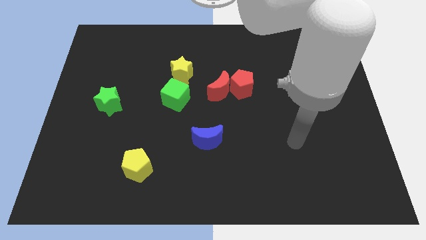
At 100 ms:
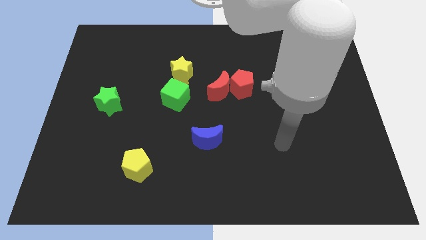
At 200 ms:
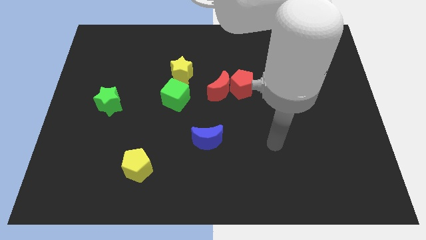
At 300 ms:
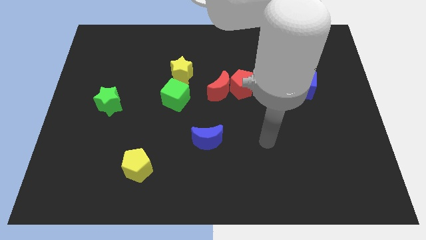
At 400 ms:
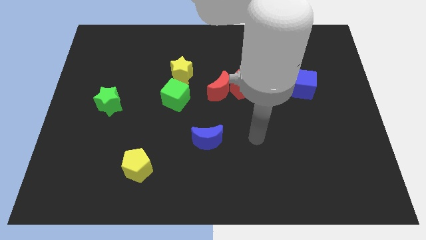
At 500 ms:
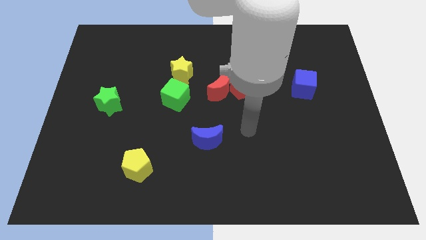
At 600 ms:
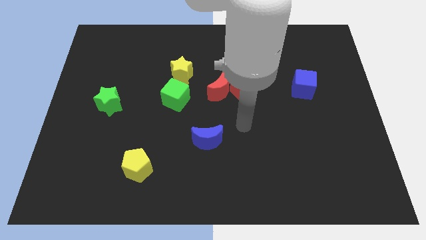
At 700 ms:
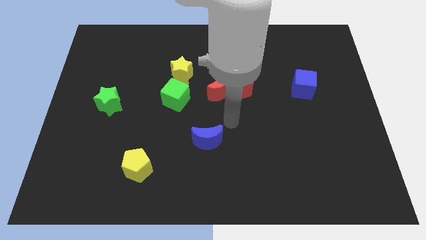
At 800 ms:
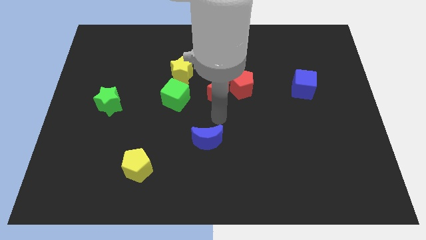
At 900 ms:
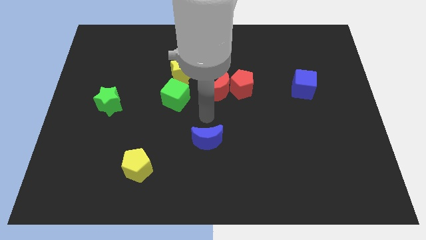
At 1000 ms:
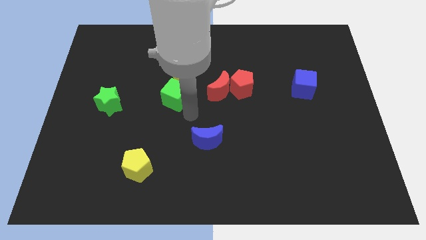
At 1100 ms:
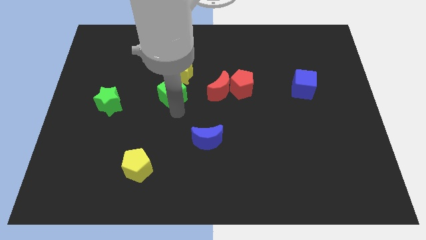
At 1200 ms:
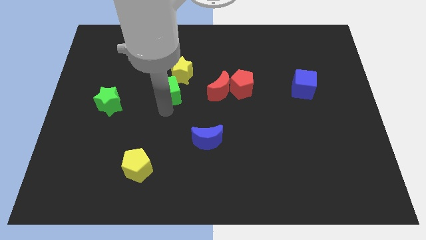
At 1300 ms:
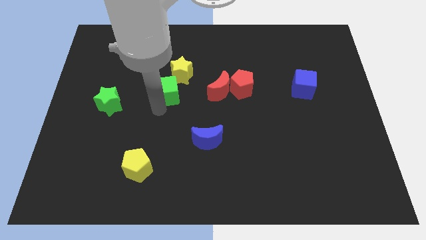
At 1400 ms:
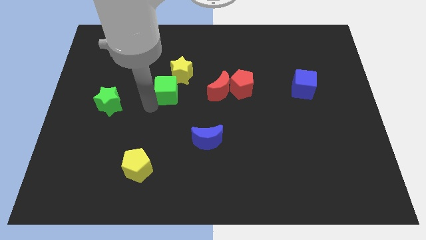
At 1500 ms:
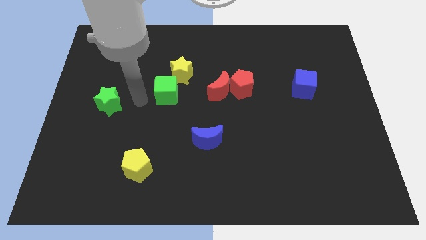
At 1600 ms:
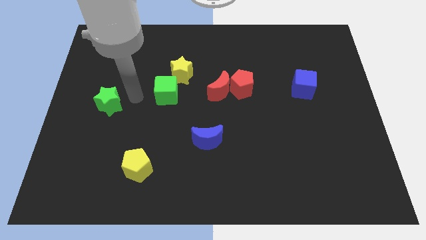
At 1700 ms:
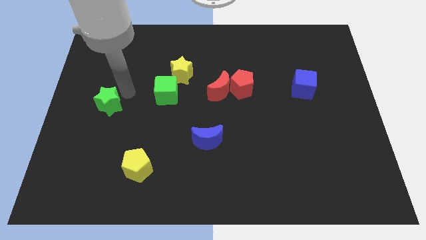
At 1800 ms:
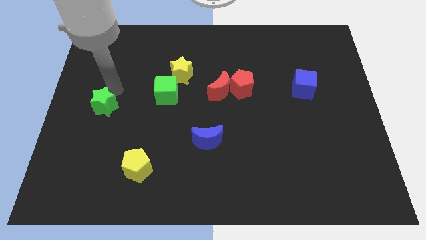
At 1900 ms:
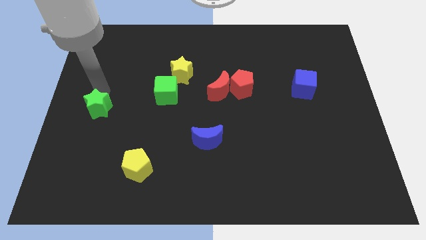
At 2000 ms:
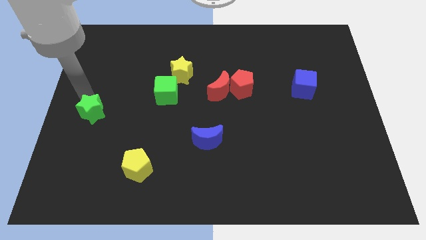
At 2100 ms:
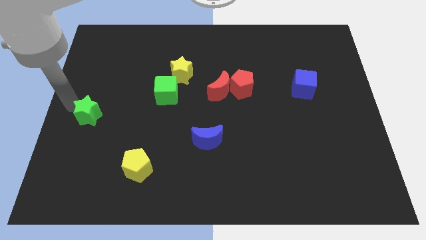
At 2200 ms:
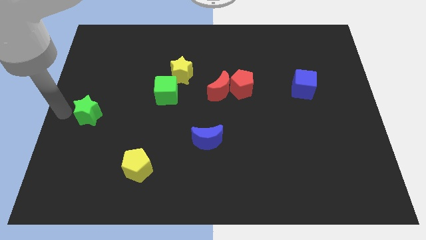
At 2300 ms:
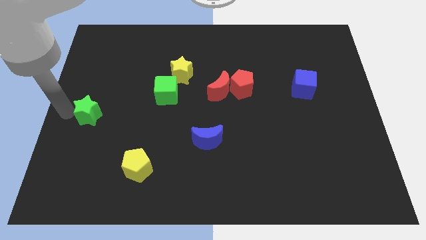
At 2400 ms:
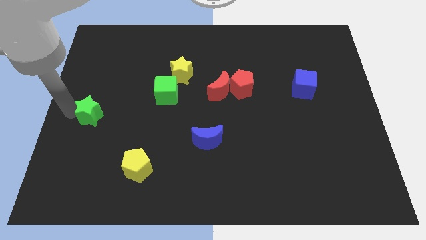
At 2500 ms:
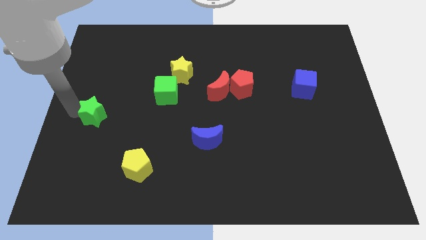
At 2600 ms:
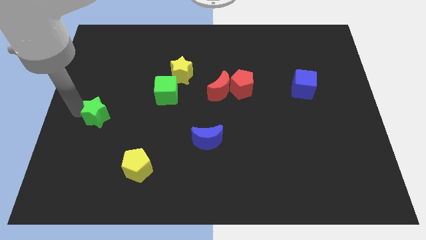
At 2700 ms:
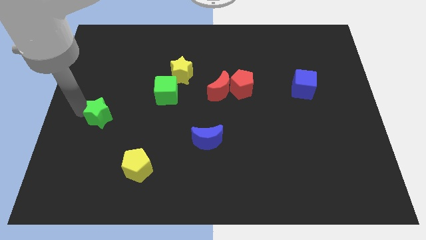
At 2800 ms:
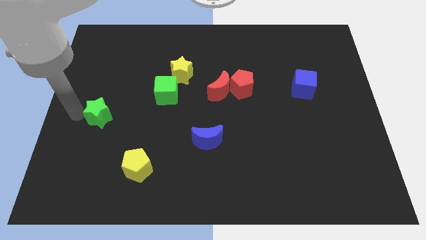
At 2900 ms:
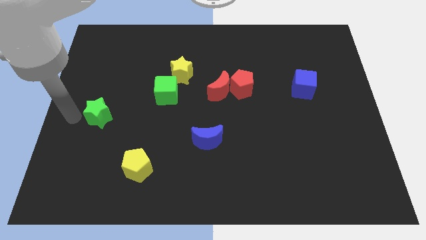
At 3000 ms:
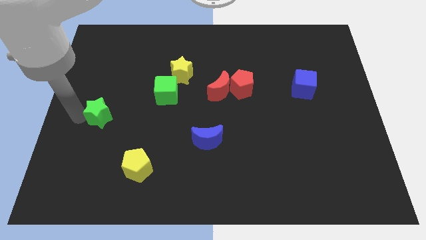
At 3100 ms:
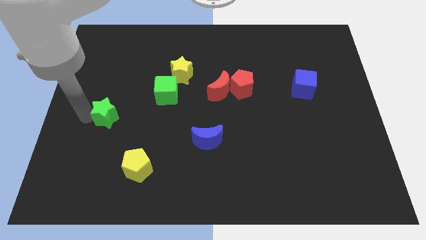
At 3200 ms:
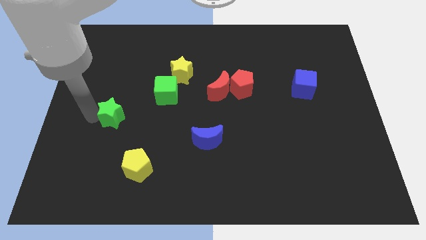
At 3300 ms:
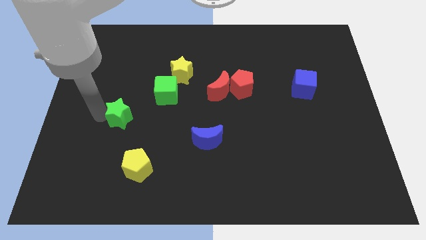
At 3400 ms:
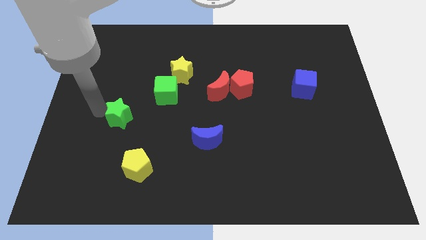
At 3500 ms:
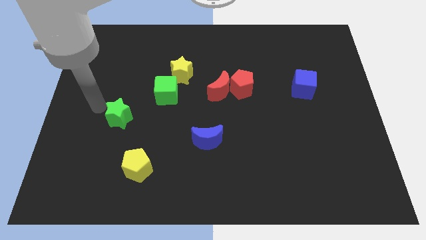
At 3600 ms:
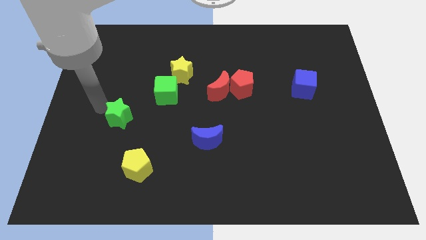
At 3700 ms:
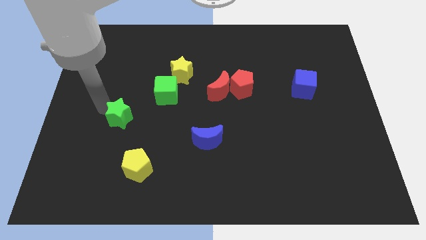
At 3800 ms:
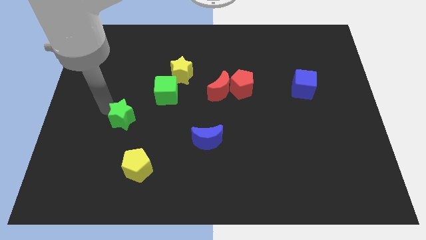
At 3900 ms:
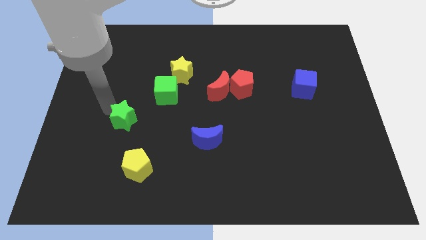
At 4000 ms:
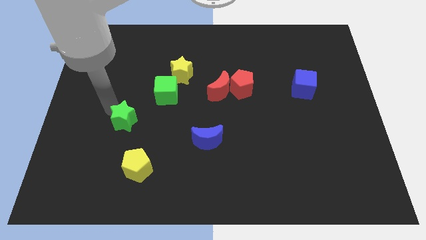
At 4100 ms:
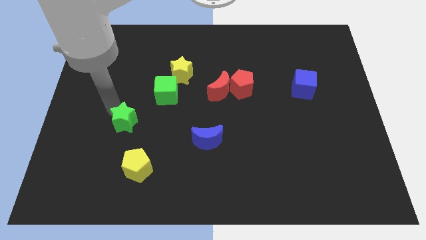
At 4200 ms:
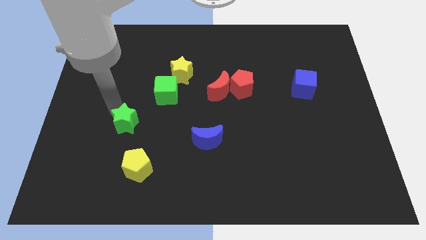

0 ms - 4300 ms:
move the green star a bit down and then to the right

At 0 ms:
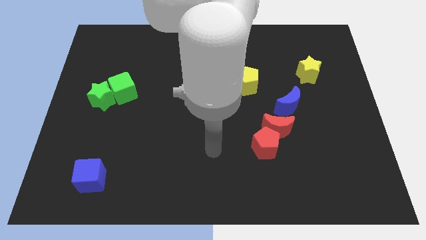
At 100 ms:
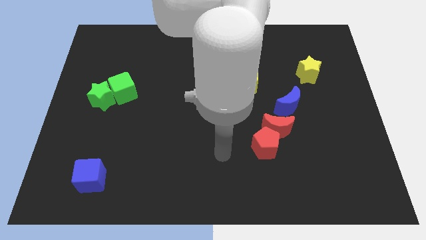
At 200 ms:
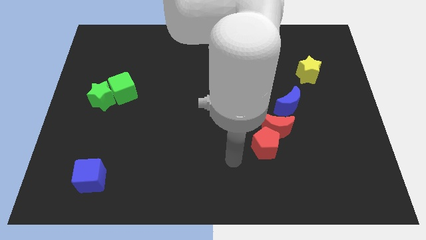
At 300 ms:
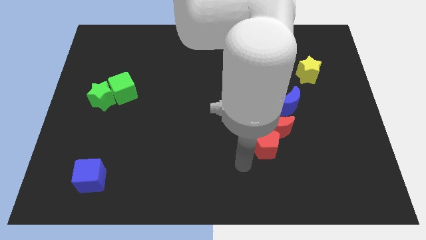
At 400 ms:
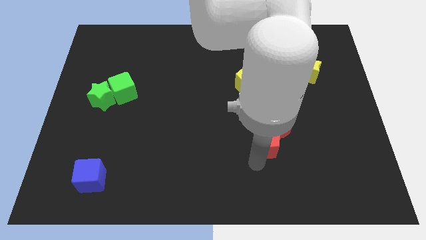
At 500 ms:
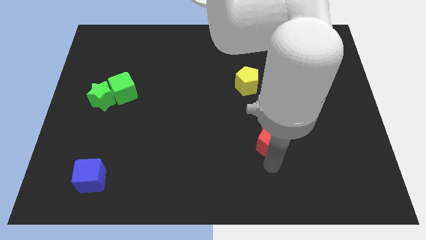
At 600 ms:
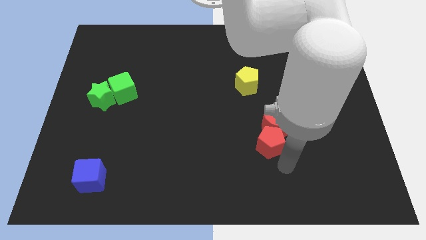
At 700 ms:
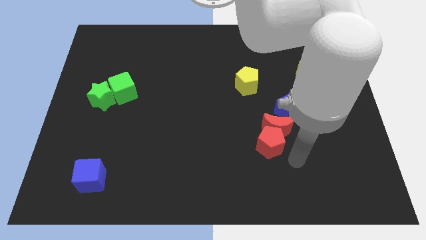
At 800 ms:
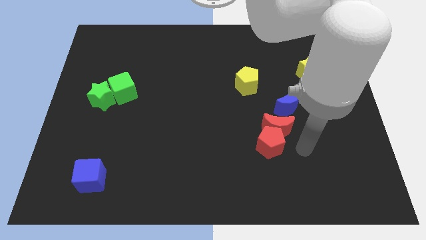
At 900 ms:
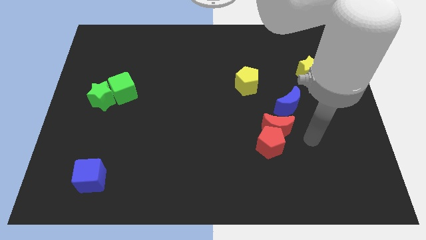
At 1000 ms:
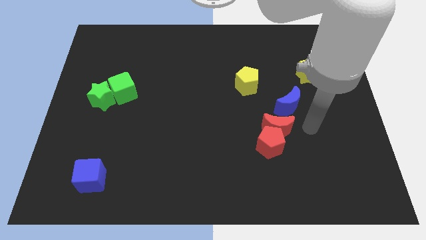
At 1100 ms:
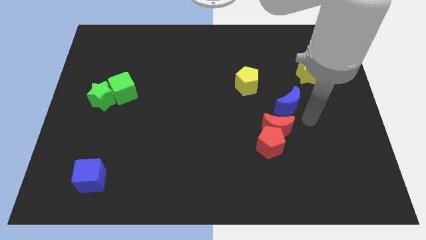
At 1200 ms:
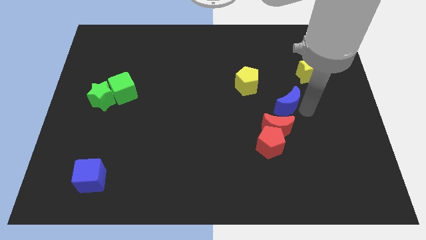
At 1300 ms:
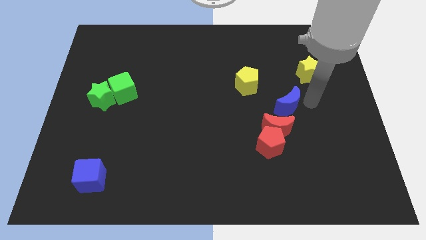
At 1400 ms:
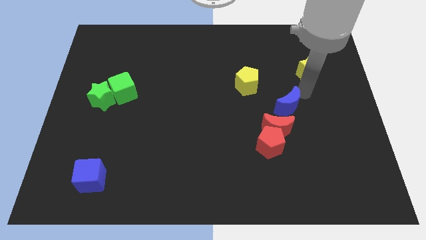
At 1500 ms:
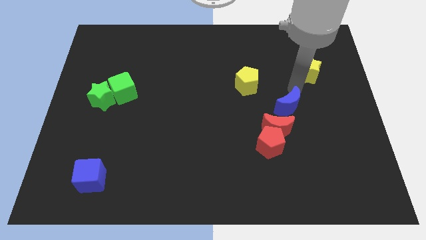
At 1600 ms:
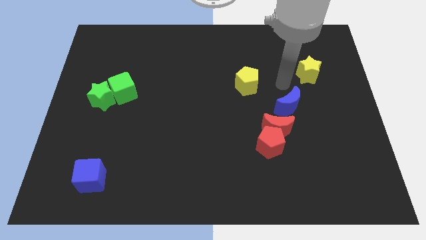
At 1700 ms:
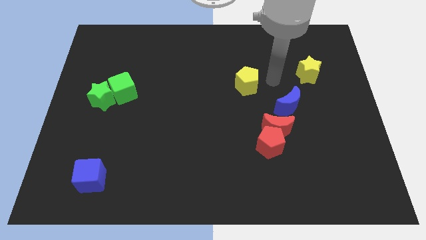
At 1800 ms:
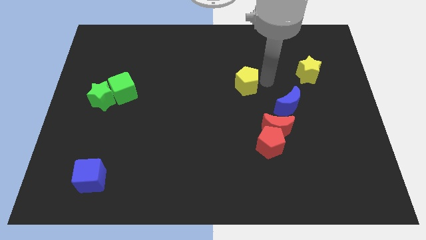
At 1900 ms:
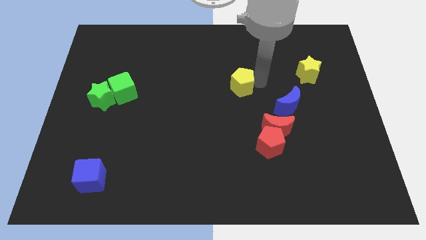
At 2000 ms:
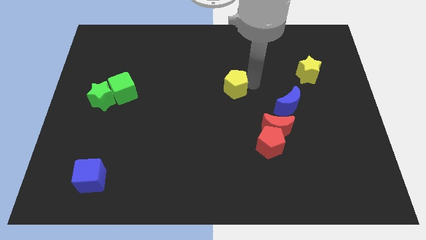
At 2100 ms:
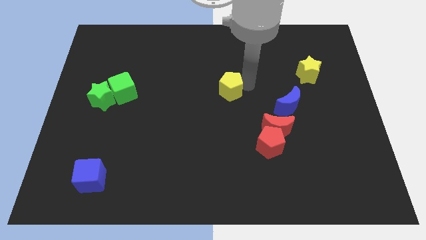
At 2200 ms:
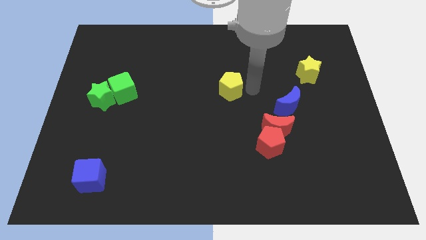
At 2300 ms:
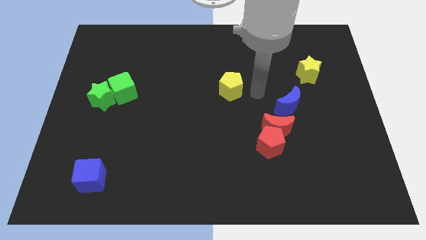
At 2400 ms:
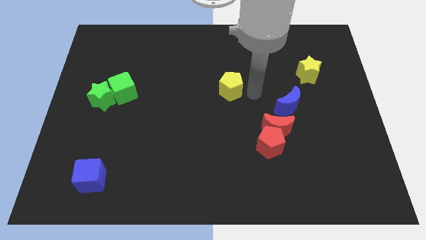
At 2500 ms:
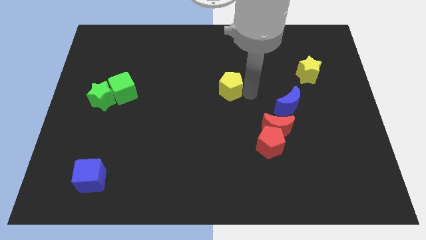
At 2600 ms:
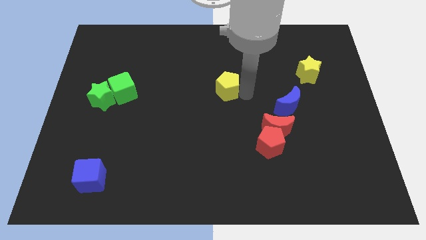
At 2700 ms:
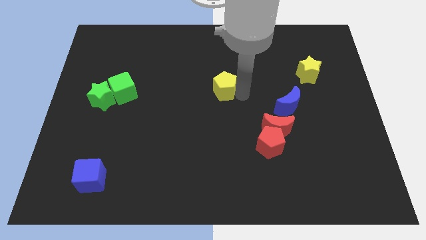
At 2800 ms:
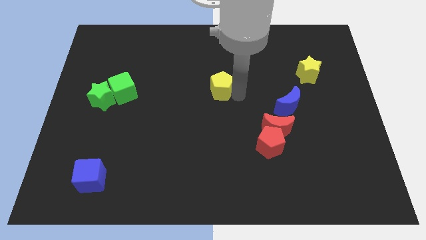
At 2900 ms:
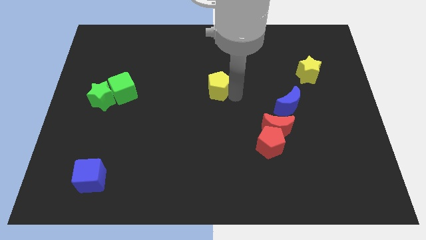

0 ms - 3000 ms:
slightly slide the yellow pentagon left

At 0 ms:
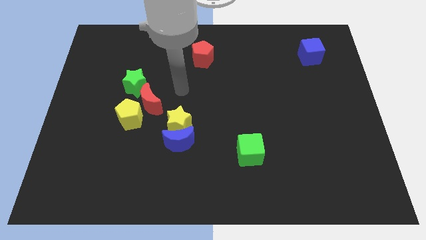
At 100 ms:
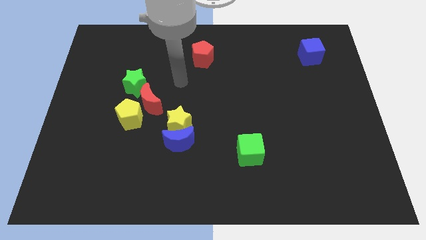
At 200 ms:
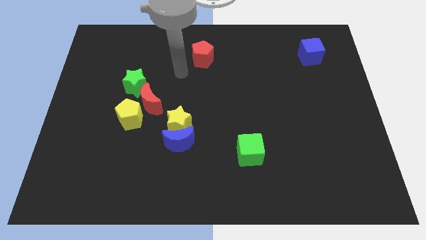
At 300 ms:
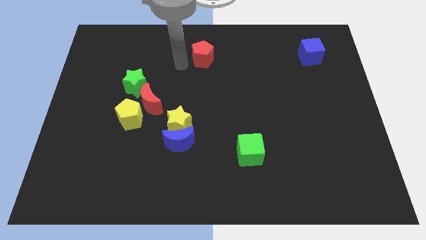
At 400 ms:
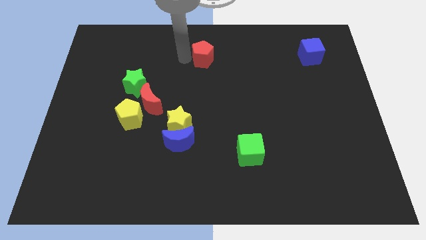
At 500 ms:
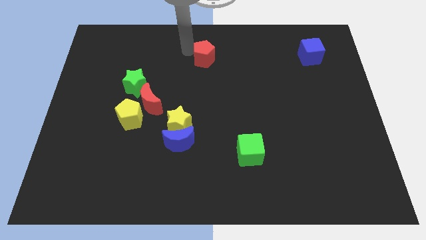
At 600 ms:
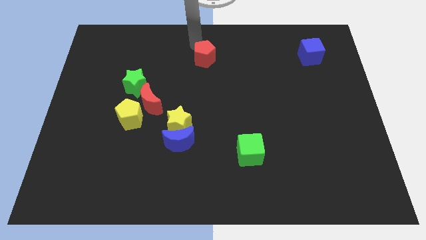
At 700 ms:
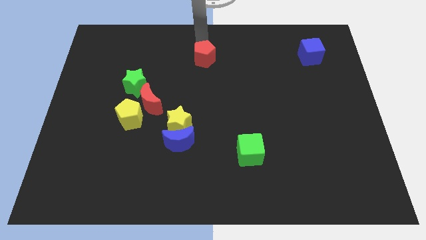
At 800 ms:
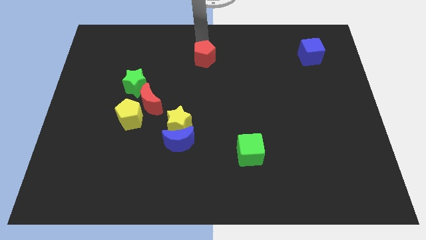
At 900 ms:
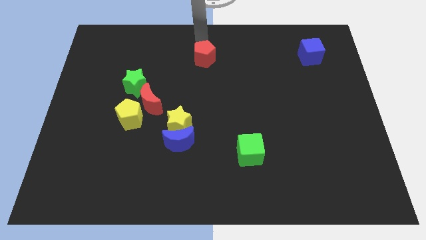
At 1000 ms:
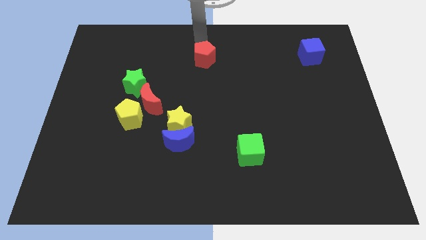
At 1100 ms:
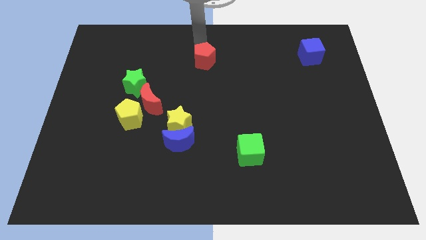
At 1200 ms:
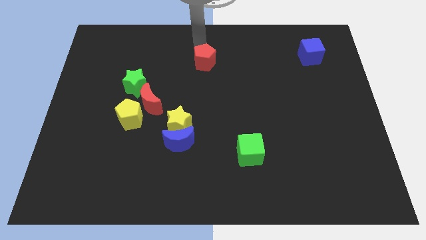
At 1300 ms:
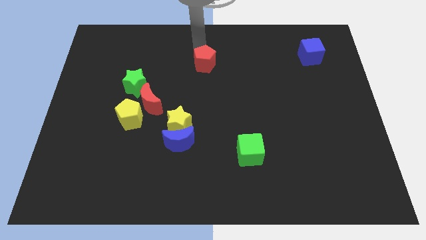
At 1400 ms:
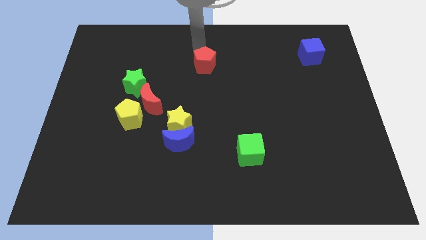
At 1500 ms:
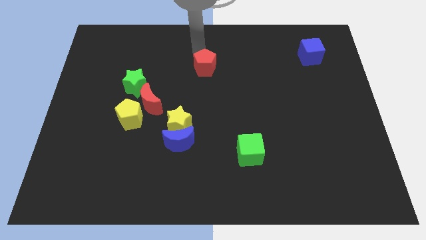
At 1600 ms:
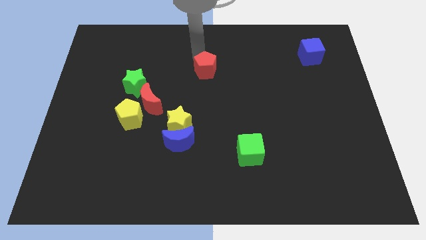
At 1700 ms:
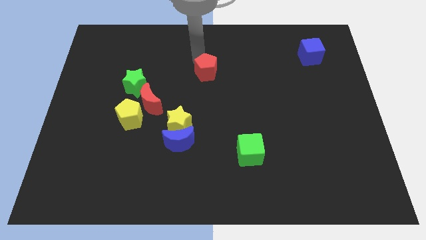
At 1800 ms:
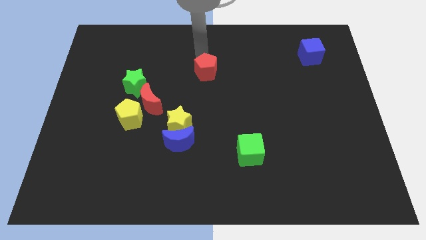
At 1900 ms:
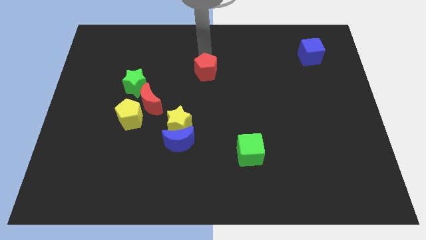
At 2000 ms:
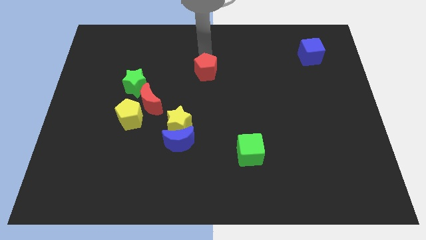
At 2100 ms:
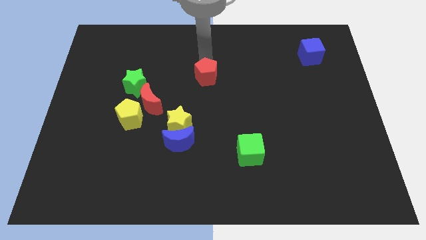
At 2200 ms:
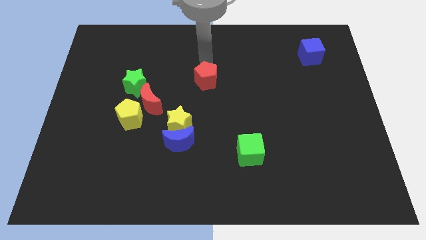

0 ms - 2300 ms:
slightly push the red pentagon down
